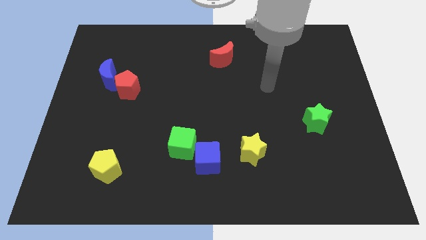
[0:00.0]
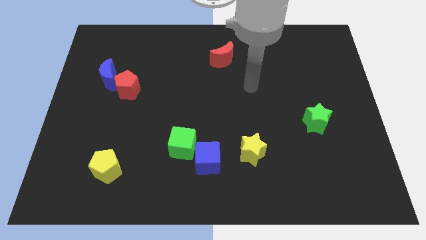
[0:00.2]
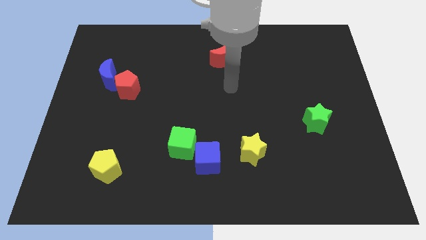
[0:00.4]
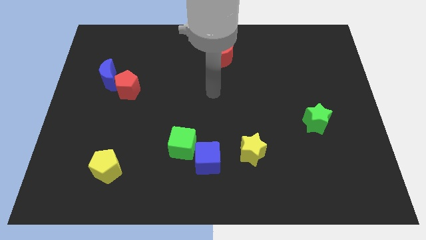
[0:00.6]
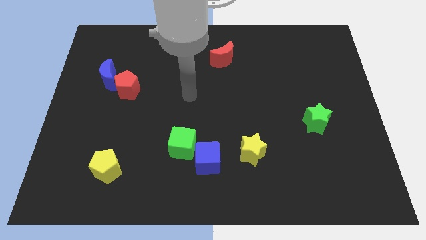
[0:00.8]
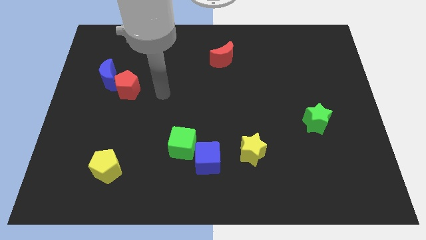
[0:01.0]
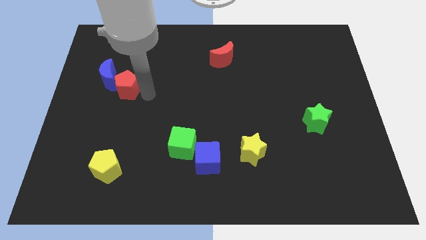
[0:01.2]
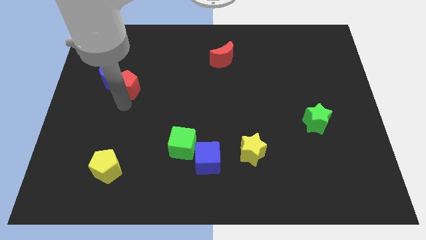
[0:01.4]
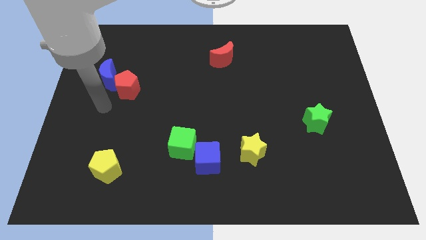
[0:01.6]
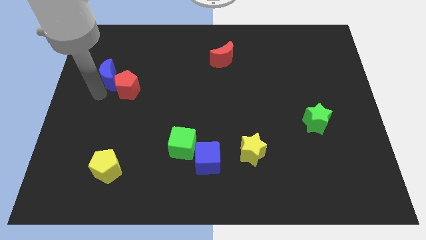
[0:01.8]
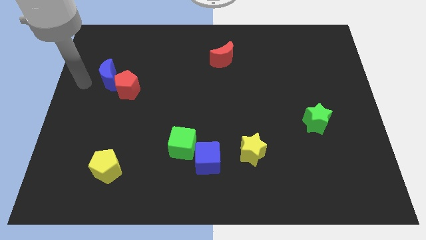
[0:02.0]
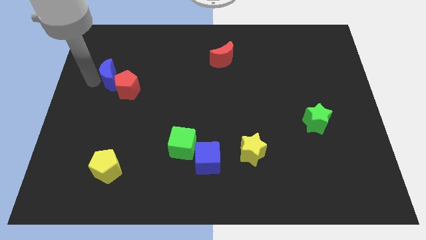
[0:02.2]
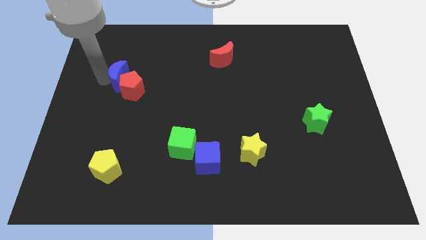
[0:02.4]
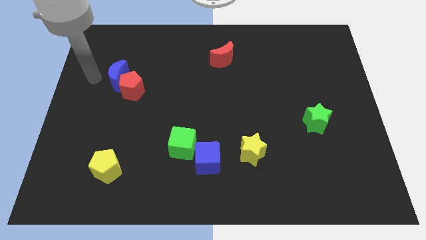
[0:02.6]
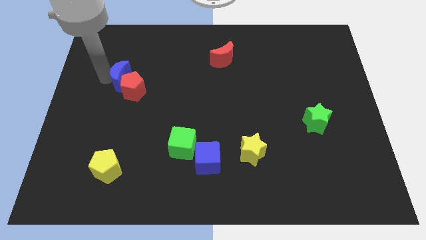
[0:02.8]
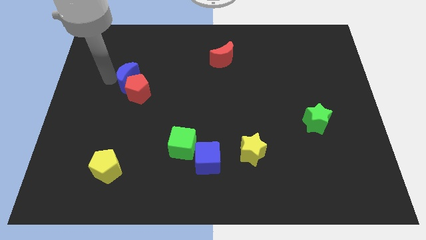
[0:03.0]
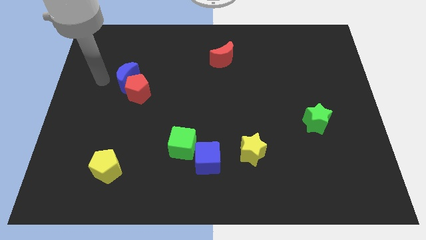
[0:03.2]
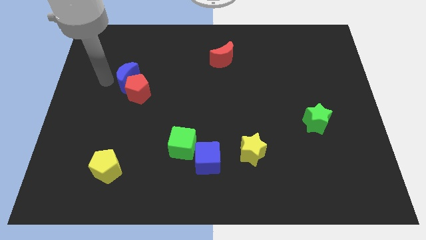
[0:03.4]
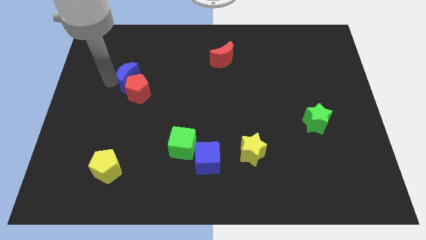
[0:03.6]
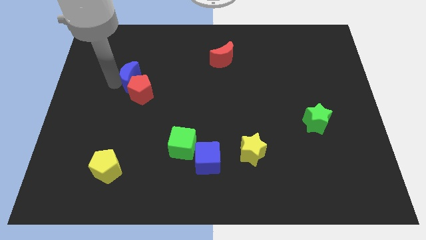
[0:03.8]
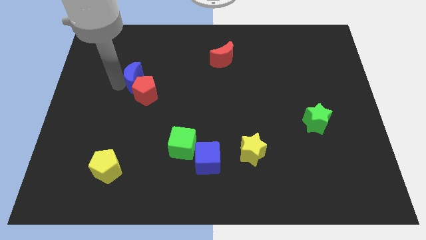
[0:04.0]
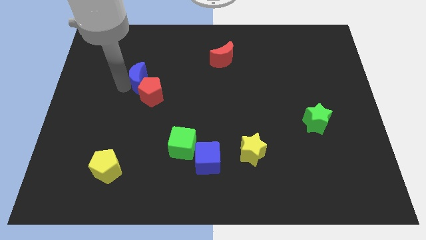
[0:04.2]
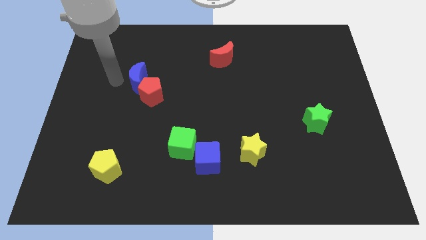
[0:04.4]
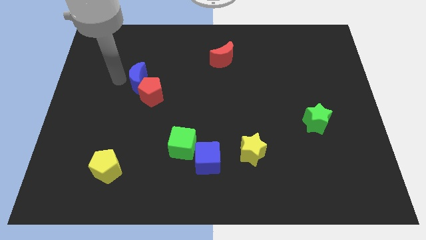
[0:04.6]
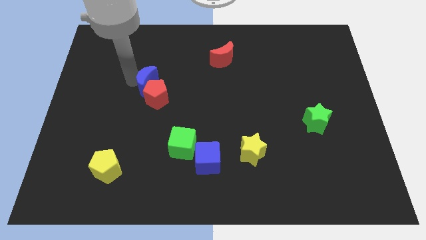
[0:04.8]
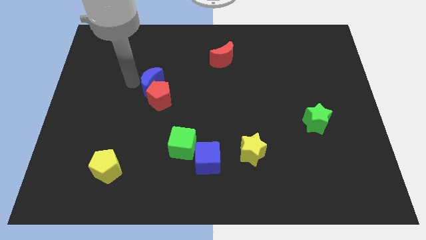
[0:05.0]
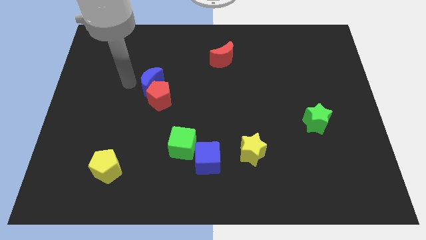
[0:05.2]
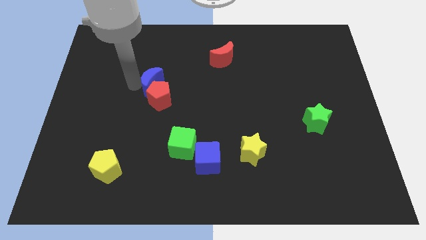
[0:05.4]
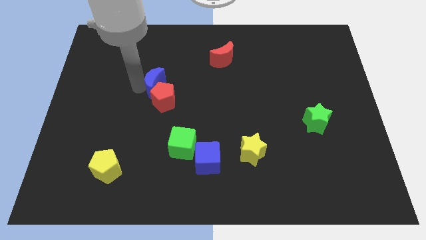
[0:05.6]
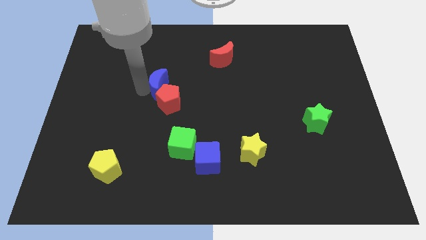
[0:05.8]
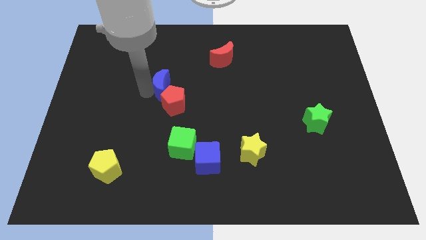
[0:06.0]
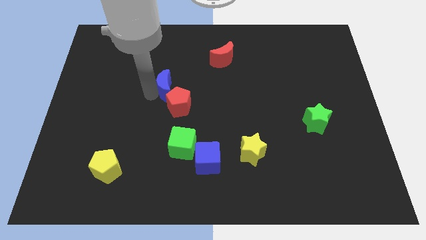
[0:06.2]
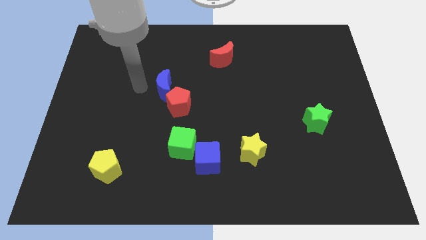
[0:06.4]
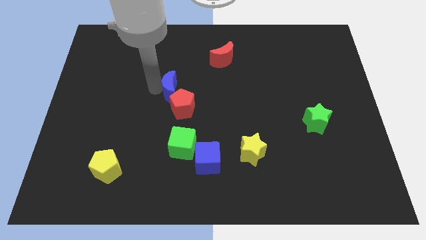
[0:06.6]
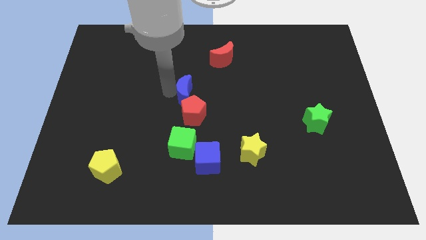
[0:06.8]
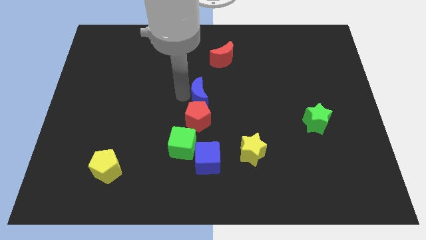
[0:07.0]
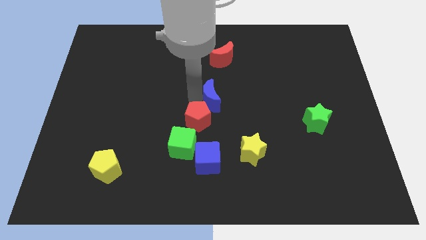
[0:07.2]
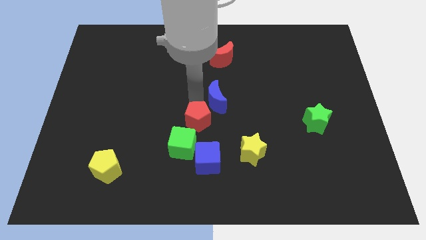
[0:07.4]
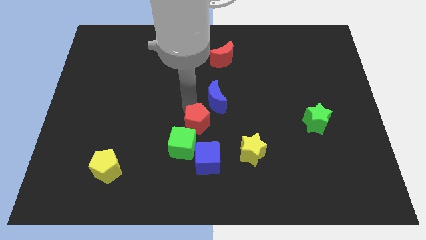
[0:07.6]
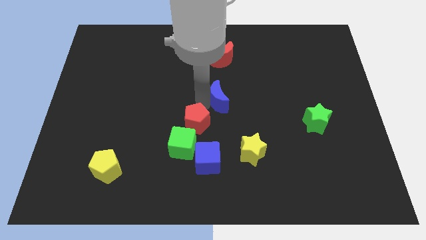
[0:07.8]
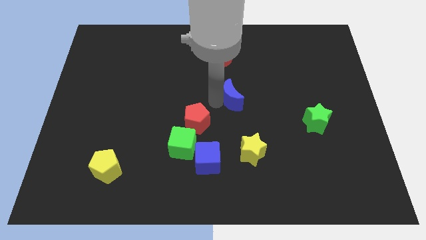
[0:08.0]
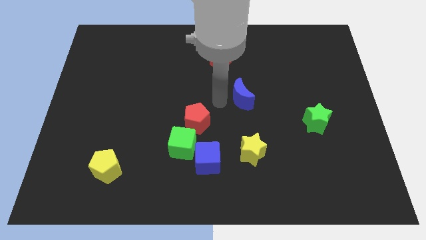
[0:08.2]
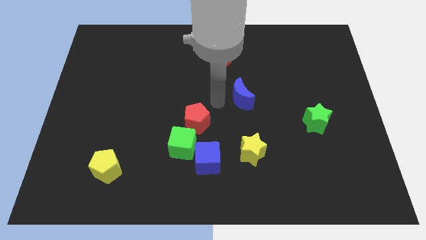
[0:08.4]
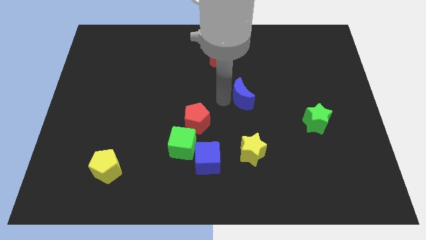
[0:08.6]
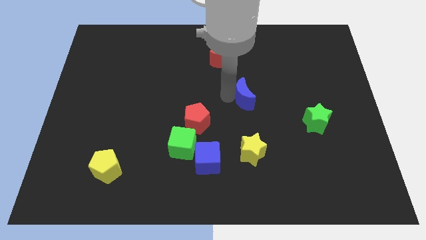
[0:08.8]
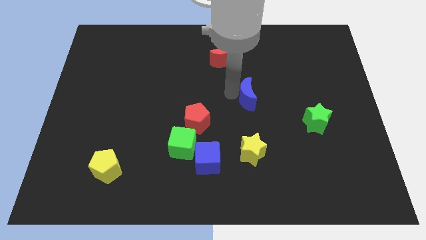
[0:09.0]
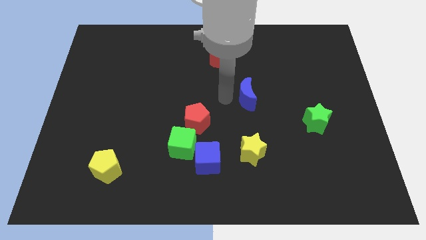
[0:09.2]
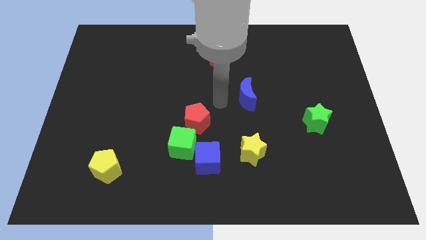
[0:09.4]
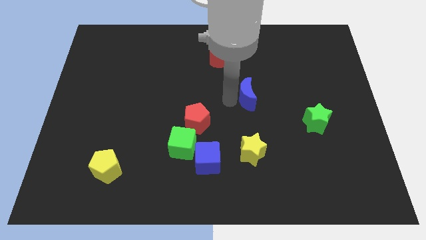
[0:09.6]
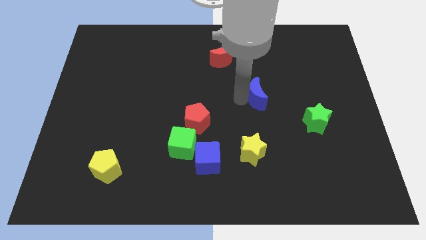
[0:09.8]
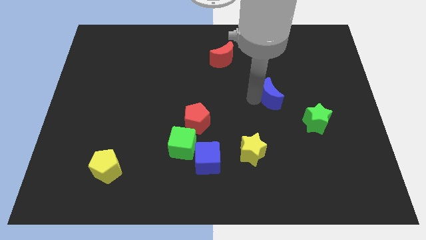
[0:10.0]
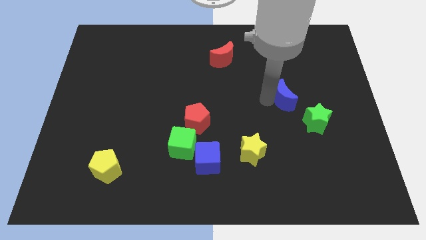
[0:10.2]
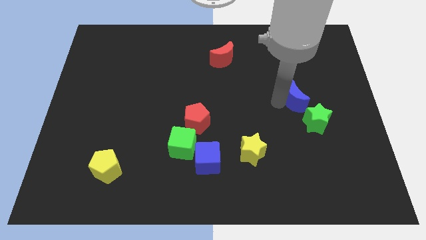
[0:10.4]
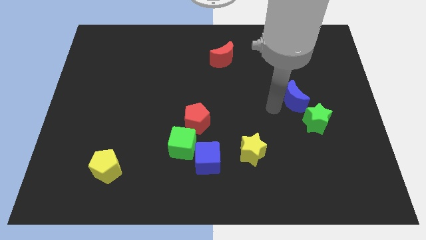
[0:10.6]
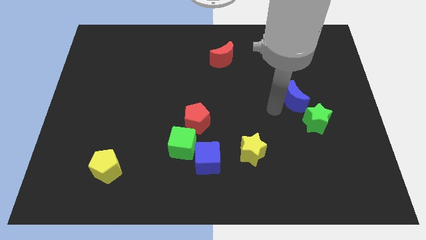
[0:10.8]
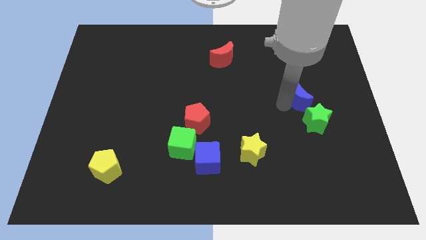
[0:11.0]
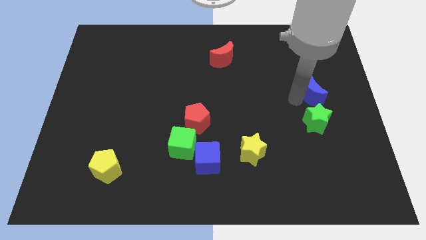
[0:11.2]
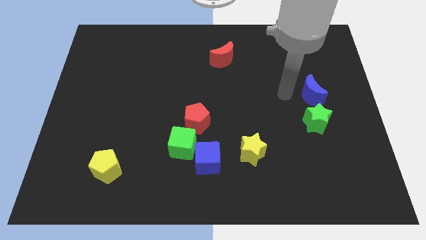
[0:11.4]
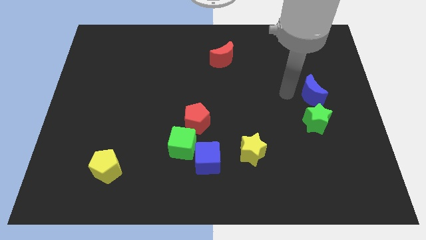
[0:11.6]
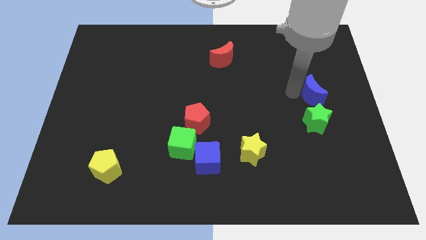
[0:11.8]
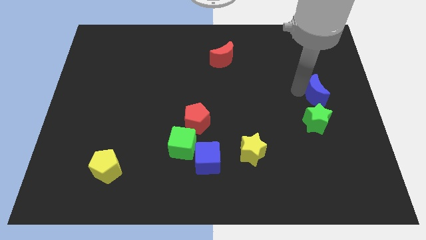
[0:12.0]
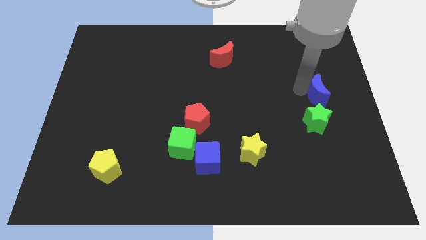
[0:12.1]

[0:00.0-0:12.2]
move the blue moon to the center right
